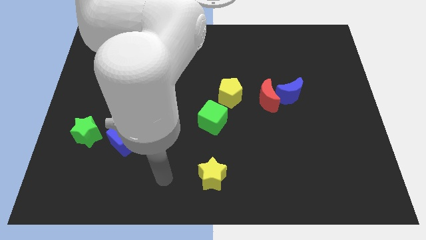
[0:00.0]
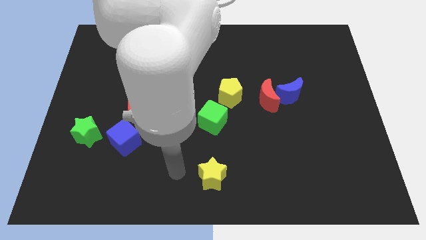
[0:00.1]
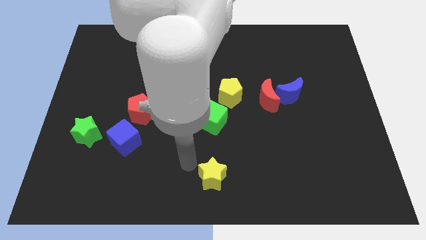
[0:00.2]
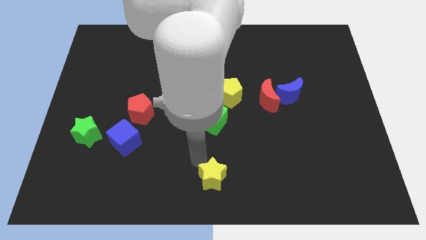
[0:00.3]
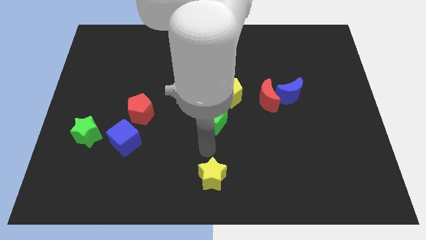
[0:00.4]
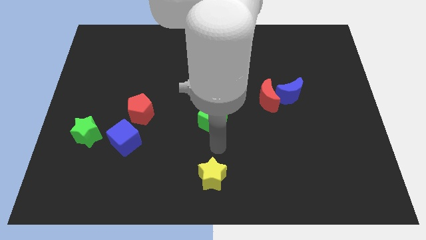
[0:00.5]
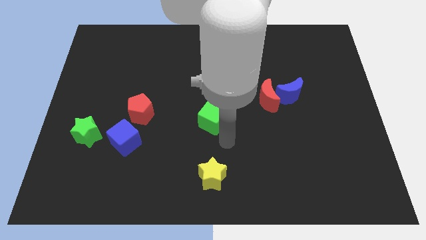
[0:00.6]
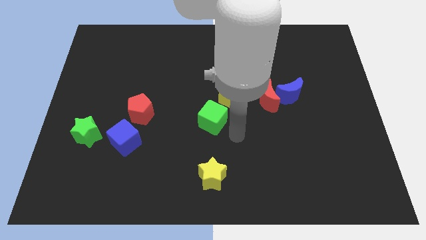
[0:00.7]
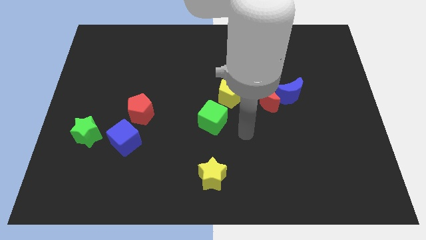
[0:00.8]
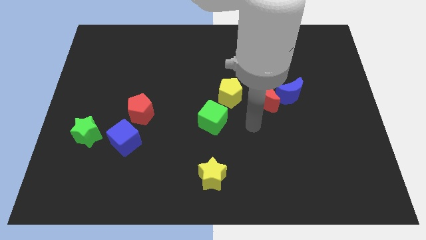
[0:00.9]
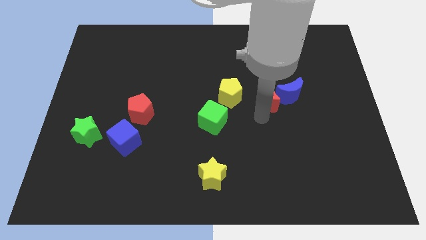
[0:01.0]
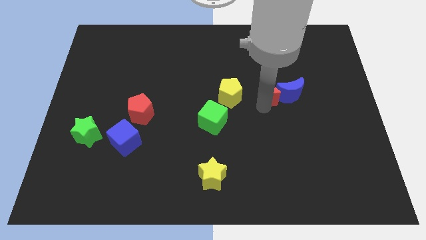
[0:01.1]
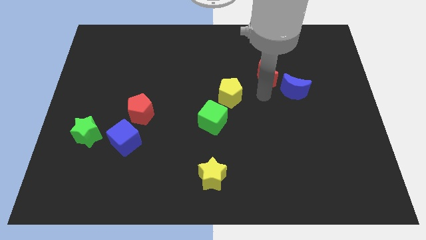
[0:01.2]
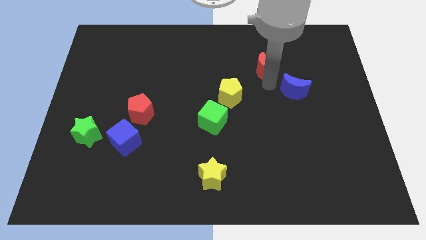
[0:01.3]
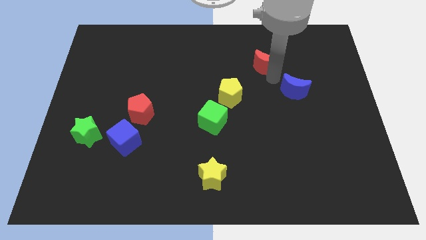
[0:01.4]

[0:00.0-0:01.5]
move the blue moon away from the red moon

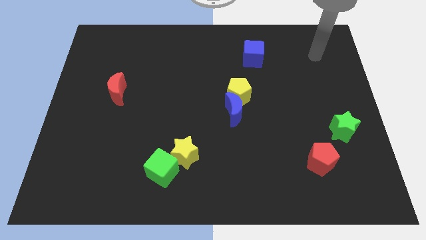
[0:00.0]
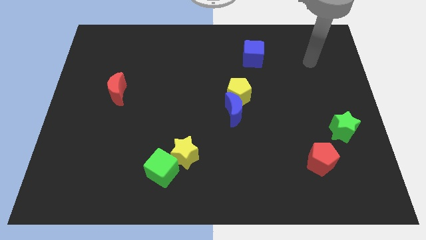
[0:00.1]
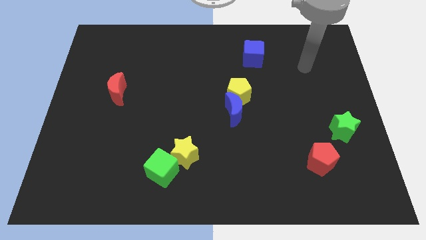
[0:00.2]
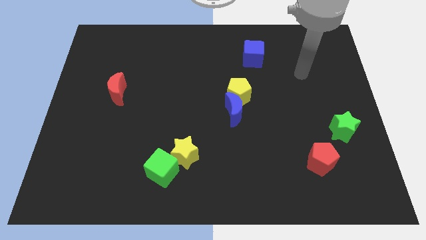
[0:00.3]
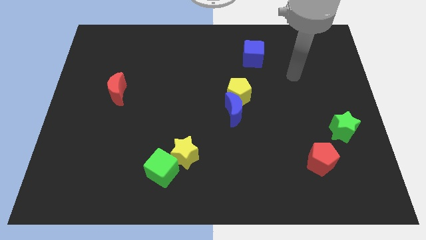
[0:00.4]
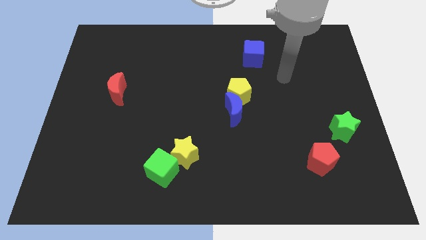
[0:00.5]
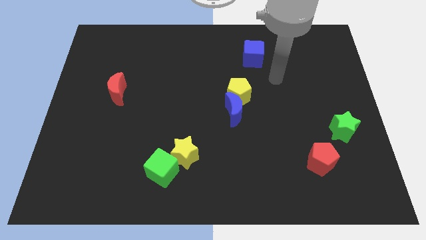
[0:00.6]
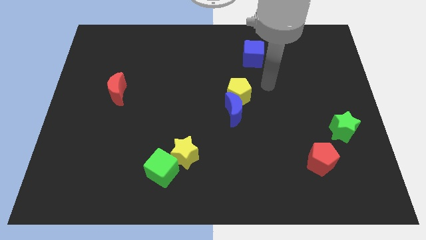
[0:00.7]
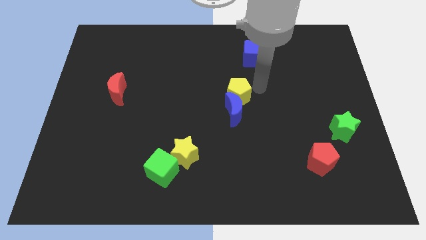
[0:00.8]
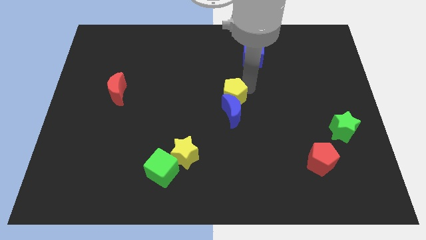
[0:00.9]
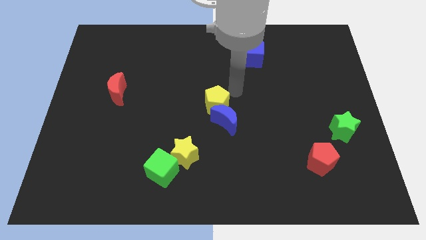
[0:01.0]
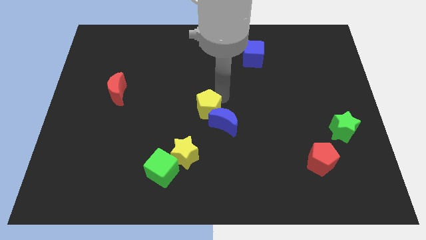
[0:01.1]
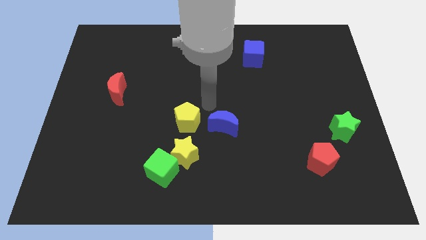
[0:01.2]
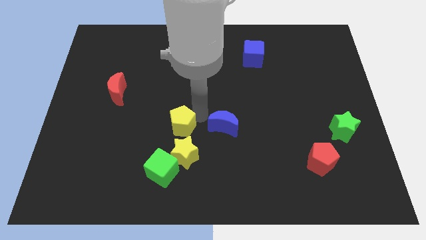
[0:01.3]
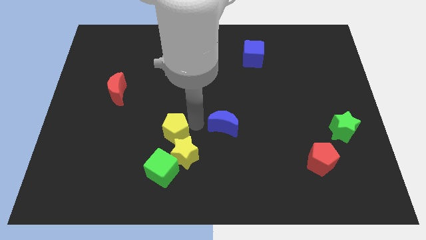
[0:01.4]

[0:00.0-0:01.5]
pull the blue moon apart from the yellow pentagon

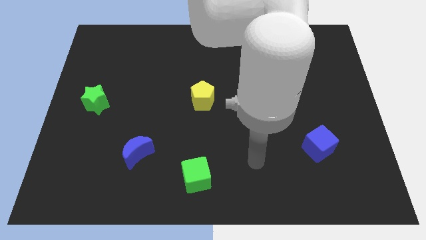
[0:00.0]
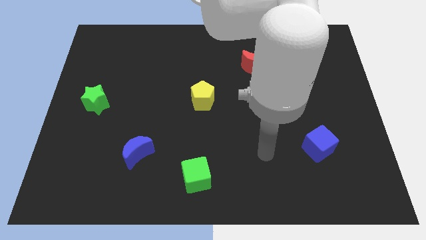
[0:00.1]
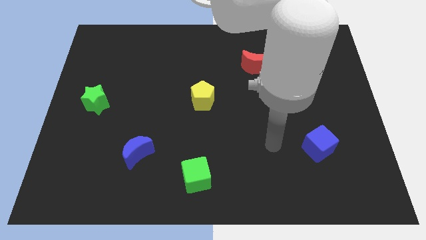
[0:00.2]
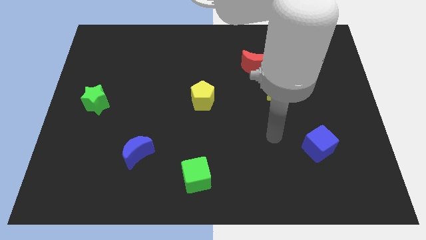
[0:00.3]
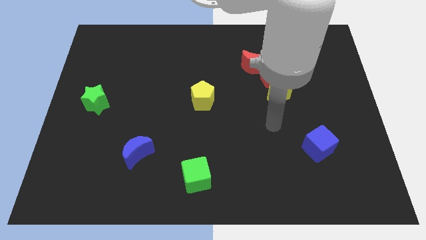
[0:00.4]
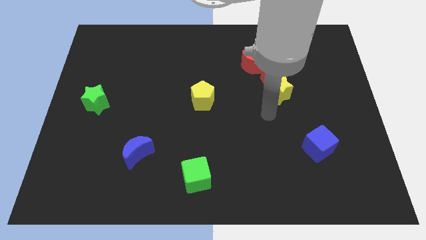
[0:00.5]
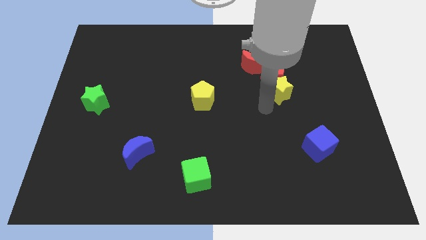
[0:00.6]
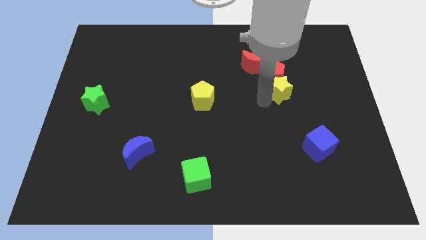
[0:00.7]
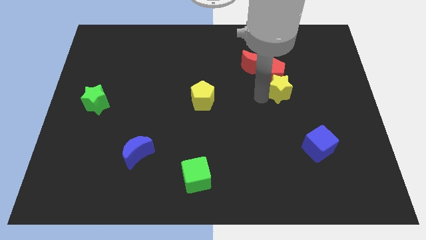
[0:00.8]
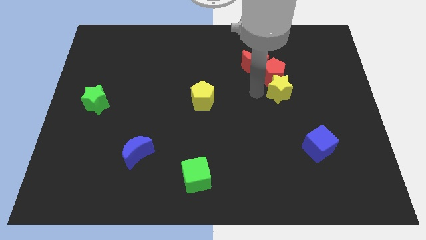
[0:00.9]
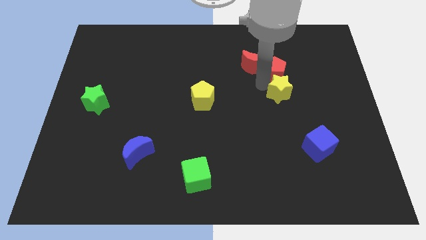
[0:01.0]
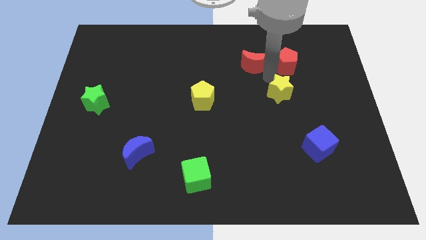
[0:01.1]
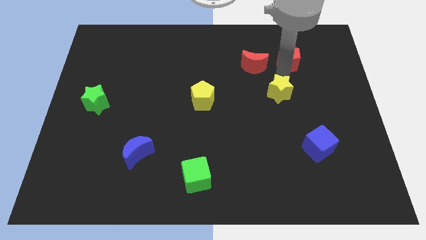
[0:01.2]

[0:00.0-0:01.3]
move the yellow star away from the red pentagon

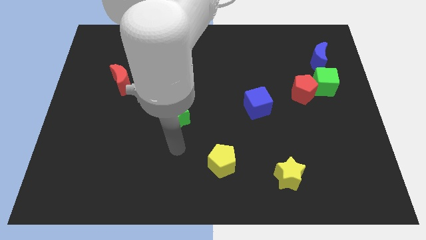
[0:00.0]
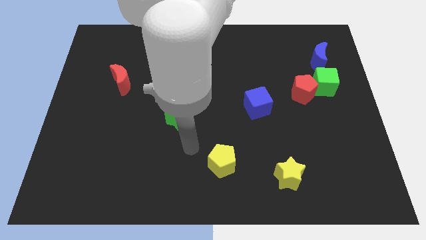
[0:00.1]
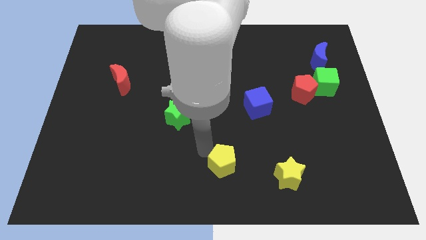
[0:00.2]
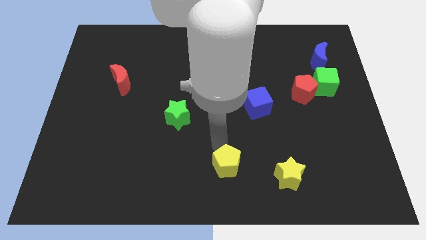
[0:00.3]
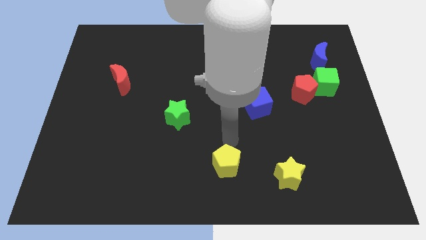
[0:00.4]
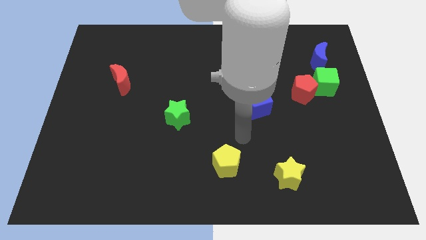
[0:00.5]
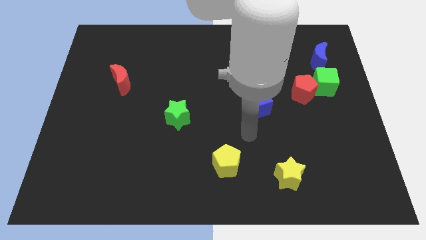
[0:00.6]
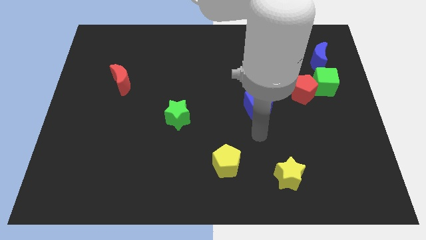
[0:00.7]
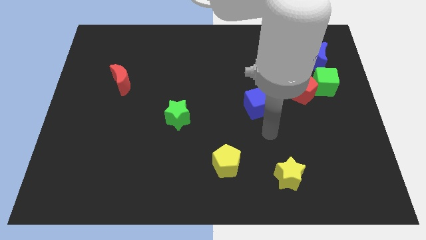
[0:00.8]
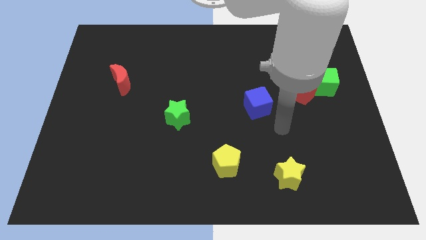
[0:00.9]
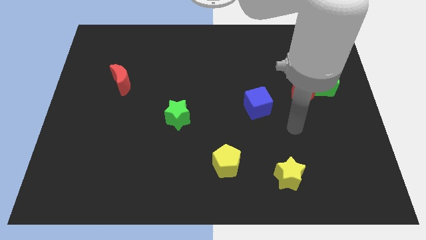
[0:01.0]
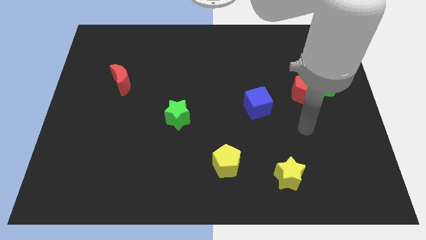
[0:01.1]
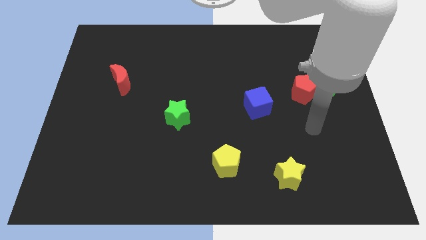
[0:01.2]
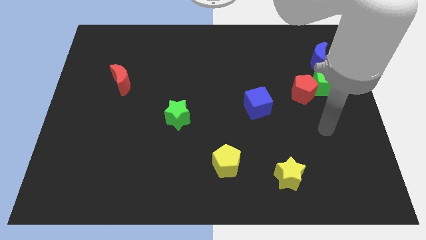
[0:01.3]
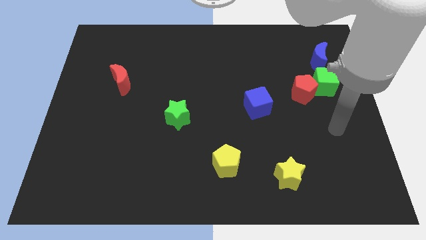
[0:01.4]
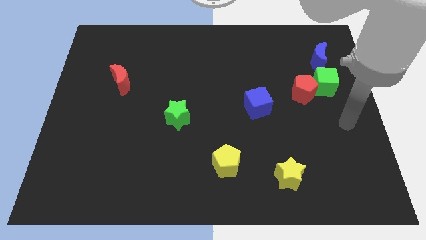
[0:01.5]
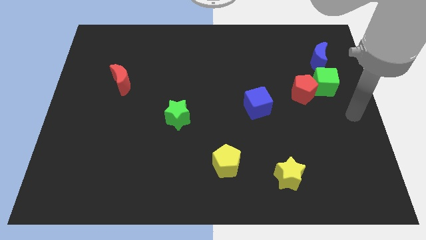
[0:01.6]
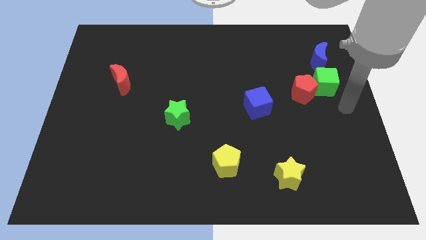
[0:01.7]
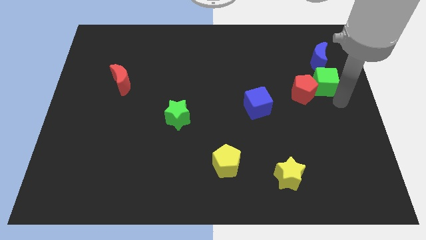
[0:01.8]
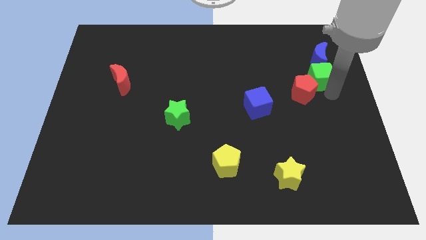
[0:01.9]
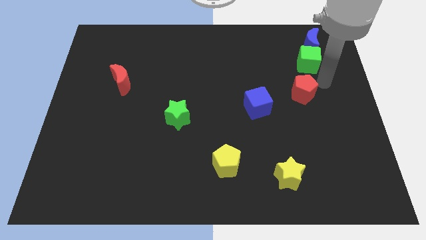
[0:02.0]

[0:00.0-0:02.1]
separate the red pentagon from the green cube

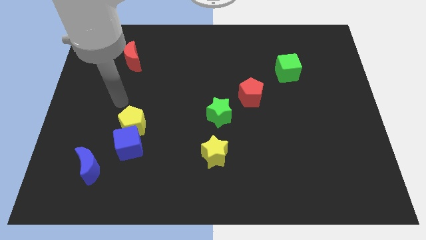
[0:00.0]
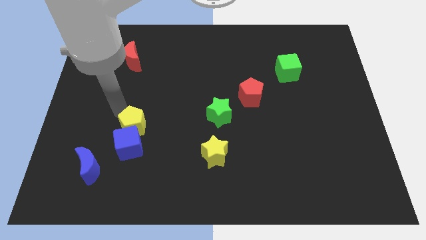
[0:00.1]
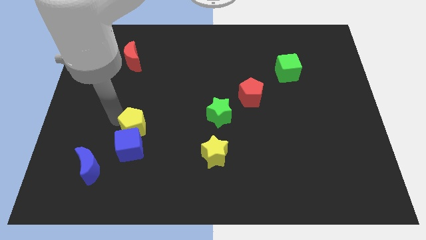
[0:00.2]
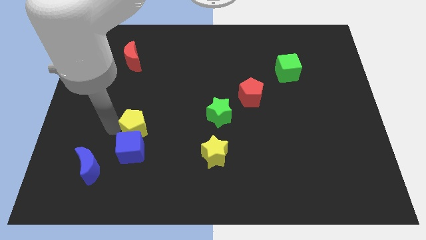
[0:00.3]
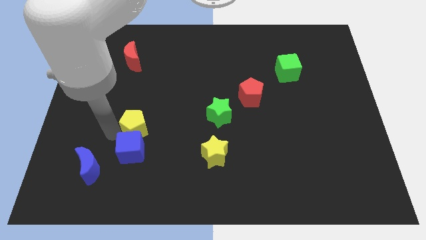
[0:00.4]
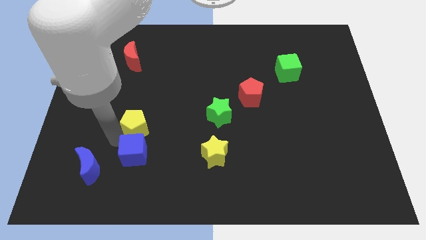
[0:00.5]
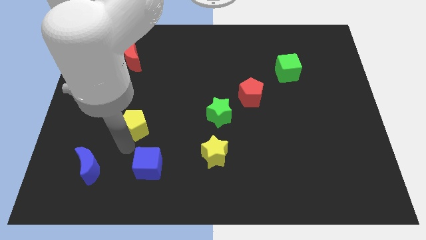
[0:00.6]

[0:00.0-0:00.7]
pull the yellow pentagon apart from the blue cube

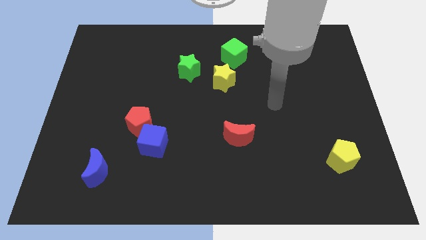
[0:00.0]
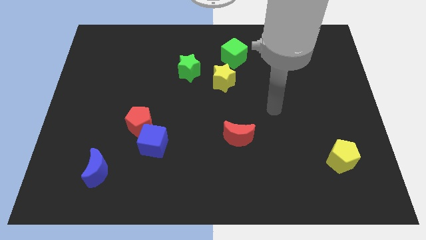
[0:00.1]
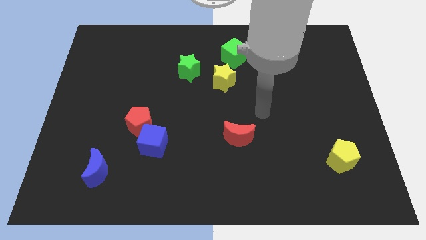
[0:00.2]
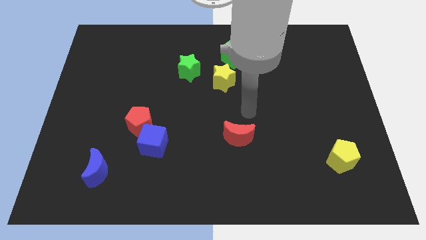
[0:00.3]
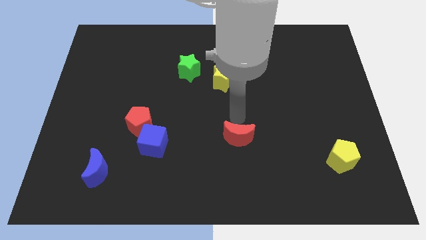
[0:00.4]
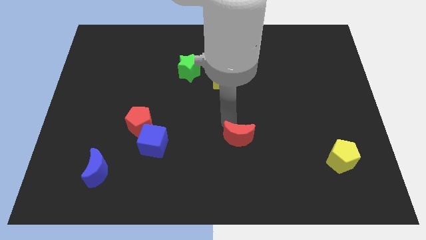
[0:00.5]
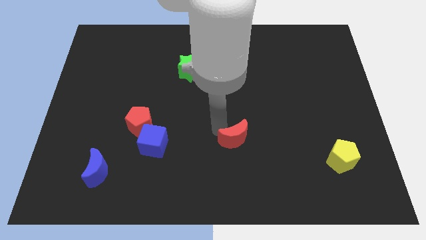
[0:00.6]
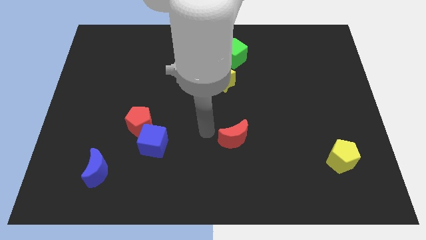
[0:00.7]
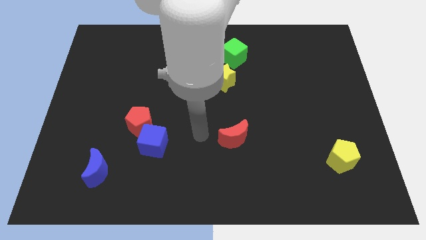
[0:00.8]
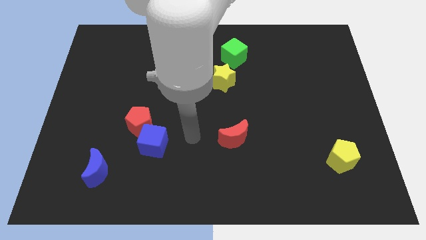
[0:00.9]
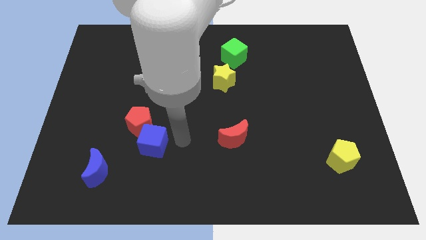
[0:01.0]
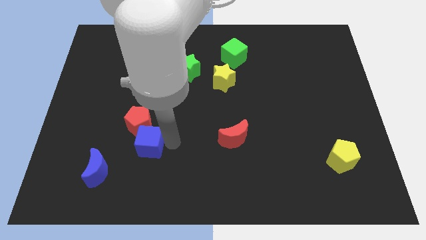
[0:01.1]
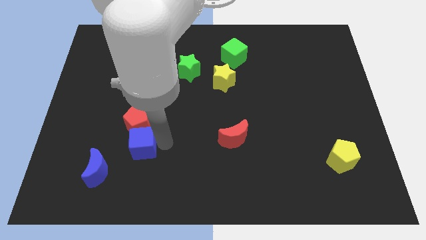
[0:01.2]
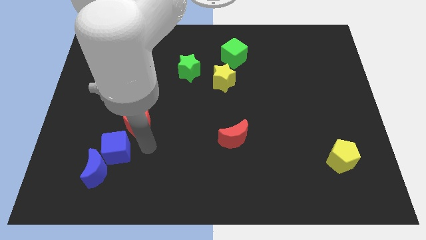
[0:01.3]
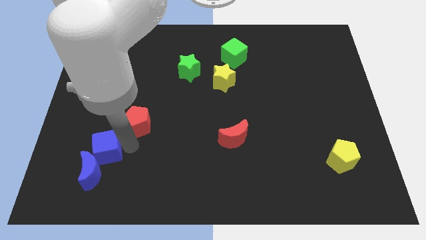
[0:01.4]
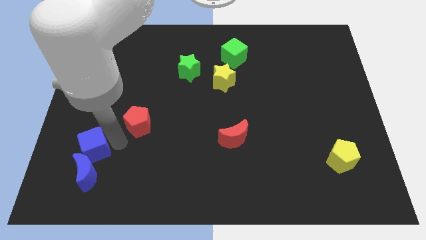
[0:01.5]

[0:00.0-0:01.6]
move the red pentagon away from the blue cube

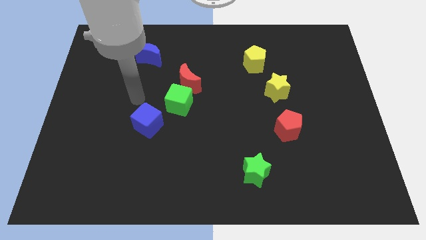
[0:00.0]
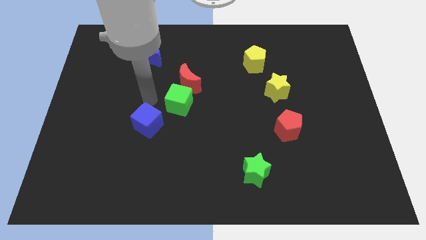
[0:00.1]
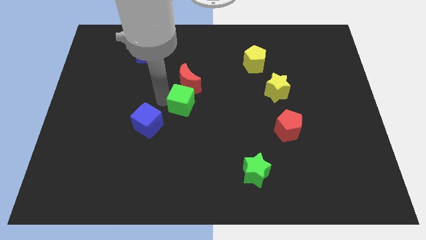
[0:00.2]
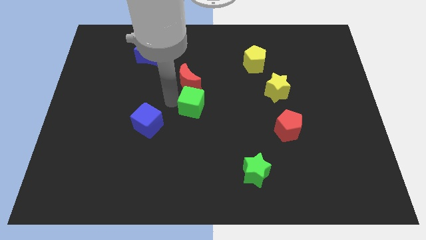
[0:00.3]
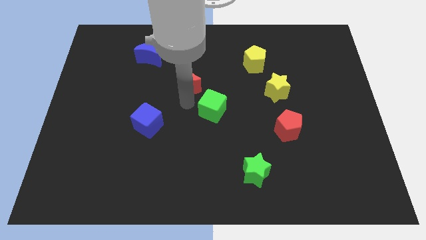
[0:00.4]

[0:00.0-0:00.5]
separate the red moon from the green cube
